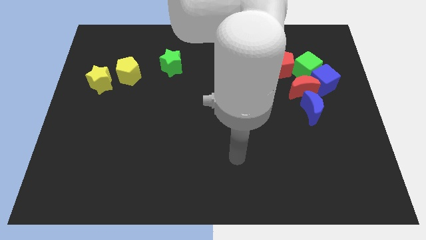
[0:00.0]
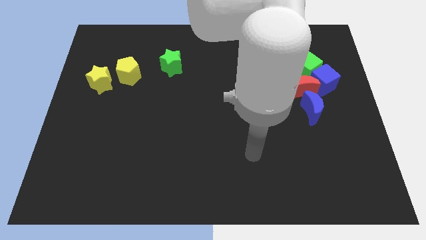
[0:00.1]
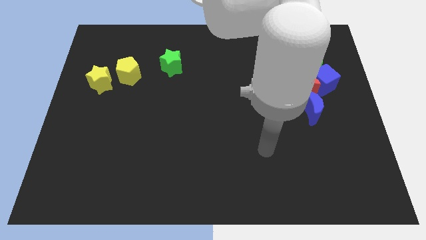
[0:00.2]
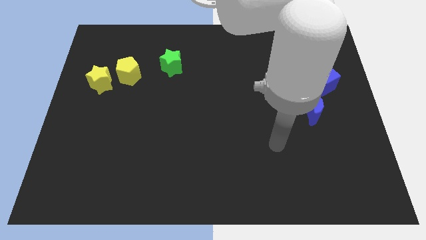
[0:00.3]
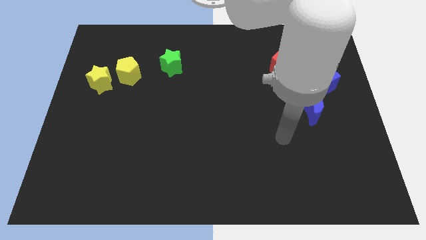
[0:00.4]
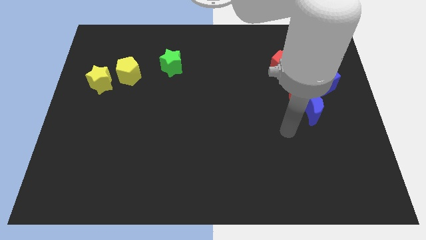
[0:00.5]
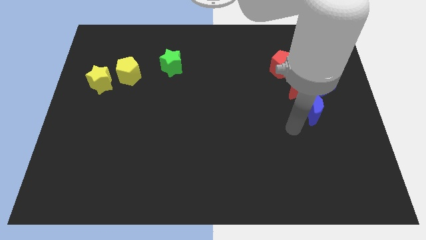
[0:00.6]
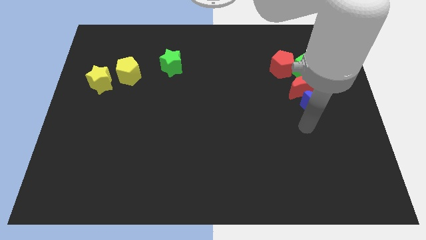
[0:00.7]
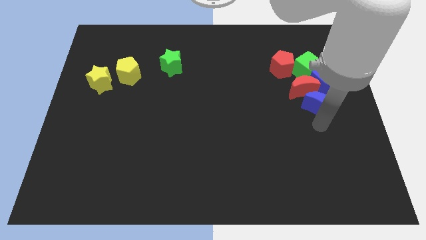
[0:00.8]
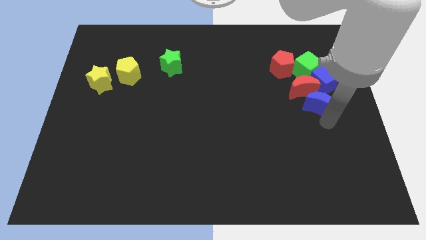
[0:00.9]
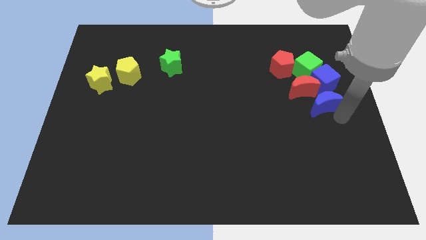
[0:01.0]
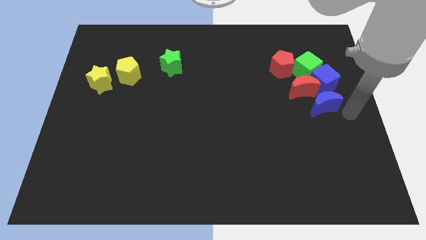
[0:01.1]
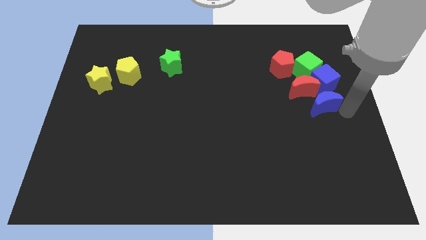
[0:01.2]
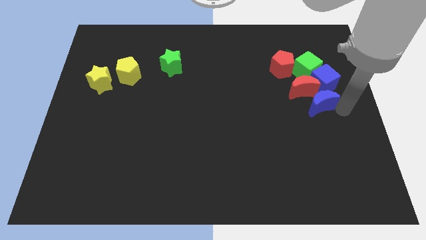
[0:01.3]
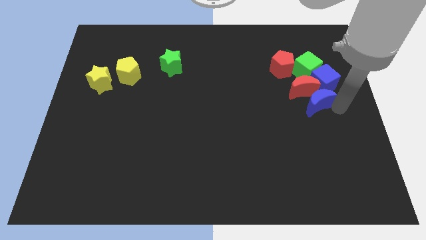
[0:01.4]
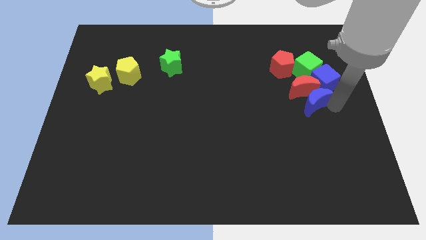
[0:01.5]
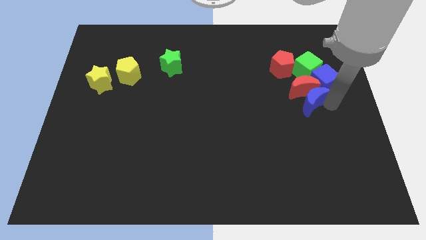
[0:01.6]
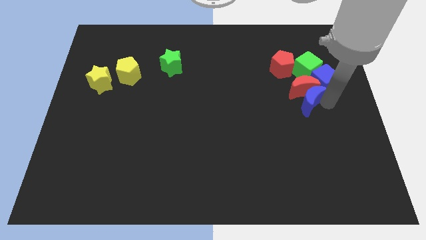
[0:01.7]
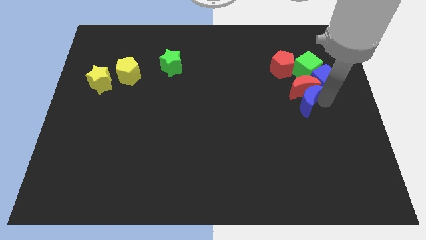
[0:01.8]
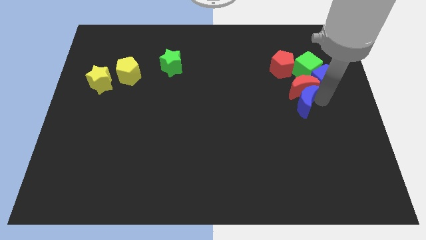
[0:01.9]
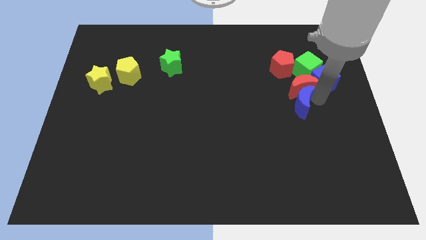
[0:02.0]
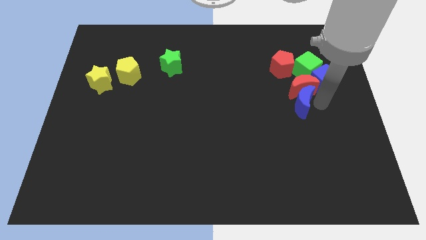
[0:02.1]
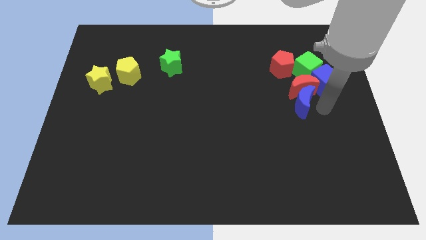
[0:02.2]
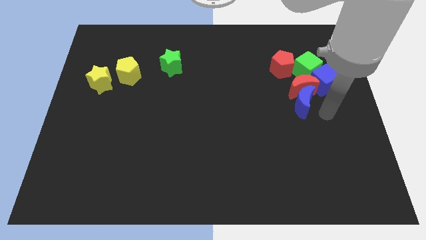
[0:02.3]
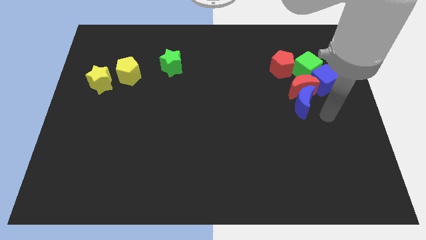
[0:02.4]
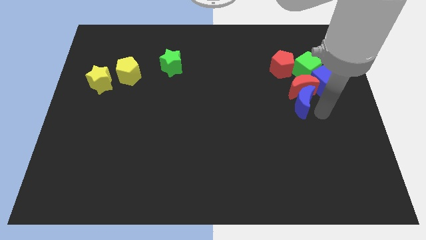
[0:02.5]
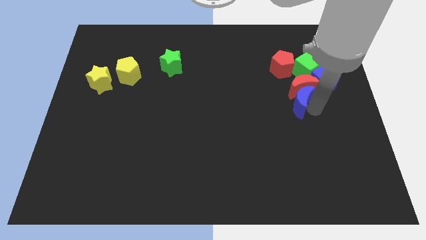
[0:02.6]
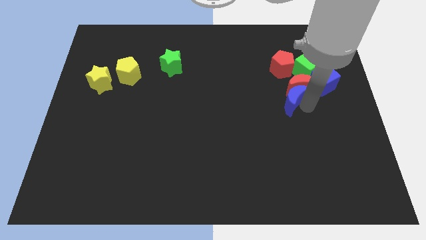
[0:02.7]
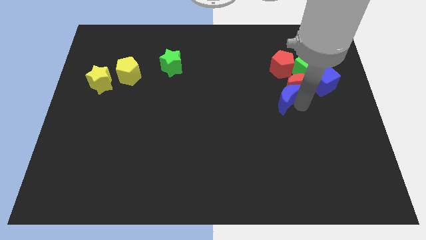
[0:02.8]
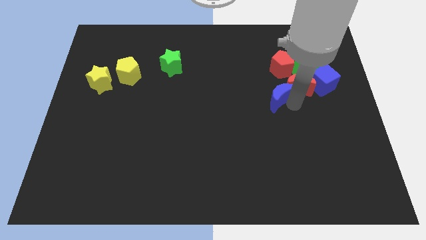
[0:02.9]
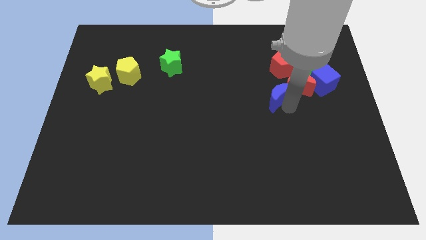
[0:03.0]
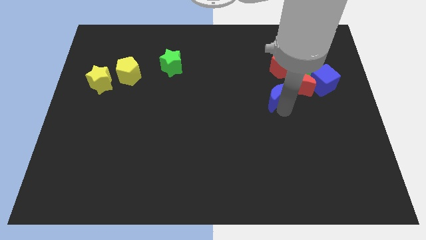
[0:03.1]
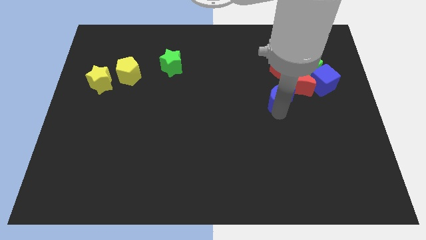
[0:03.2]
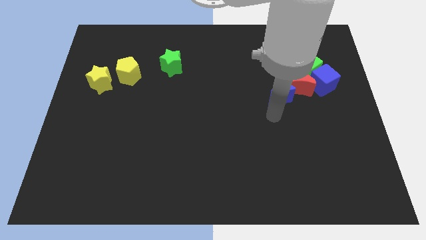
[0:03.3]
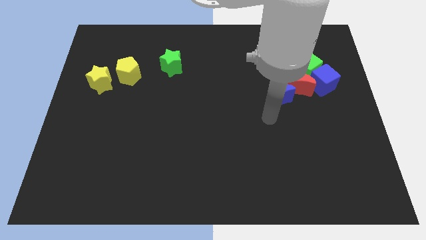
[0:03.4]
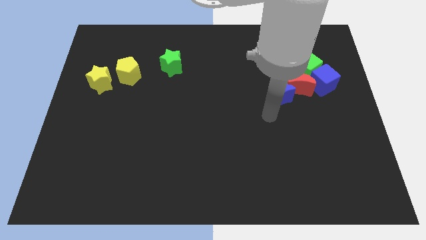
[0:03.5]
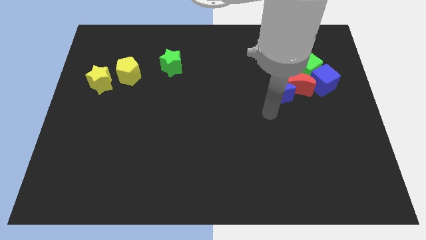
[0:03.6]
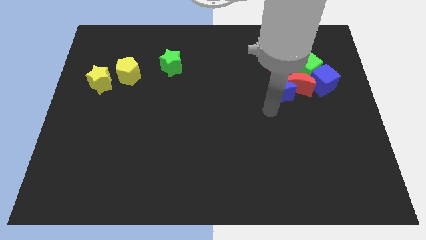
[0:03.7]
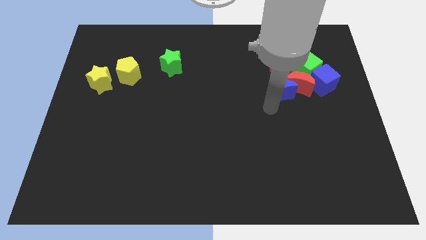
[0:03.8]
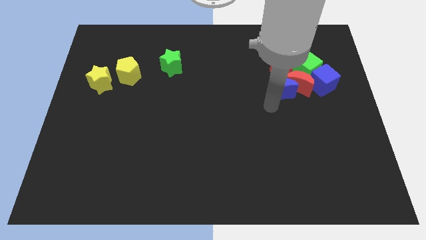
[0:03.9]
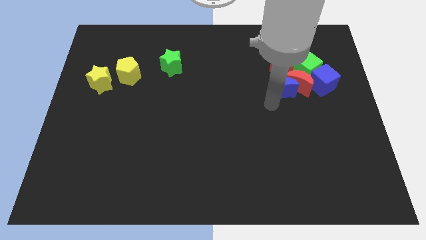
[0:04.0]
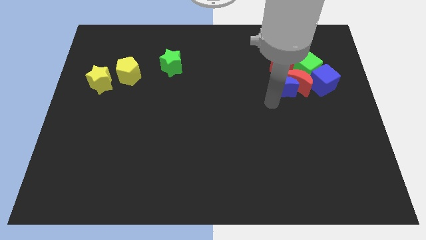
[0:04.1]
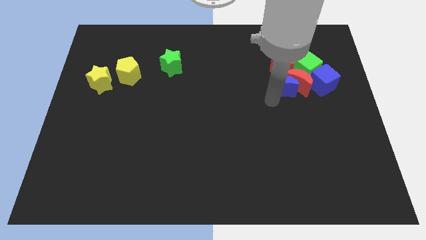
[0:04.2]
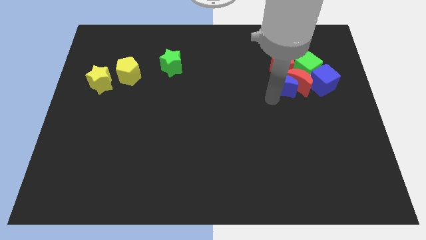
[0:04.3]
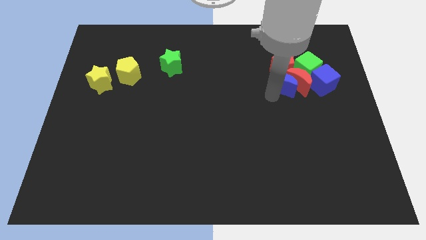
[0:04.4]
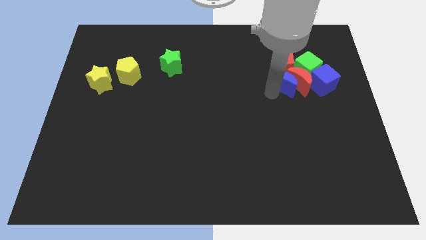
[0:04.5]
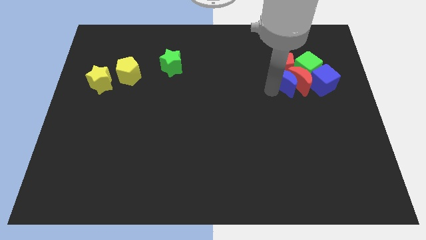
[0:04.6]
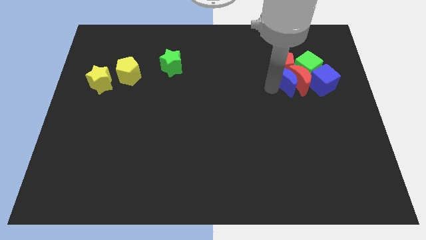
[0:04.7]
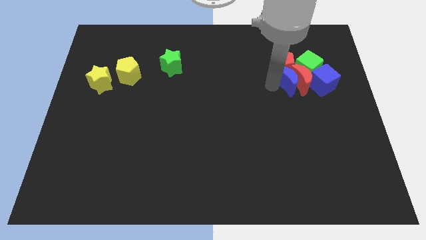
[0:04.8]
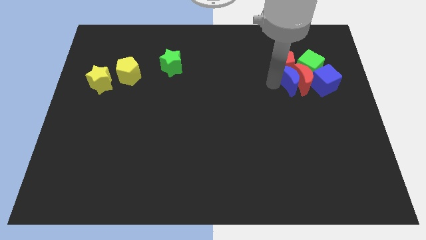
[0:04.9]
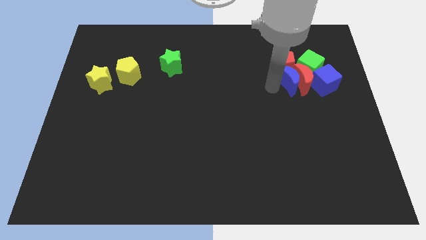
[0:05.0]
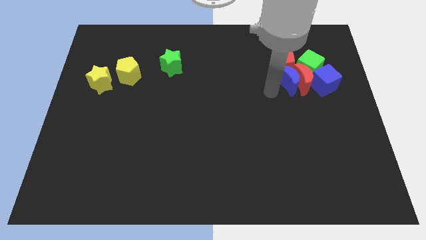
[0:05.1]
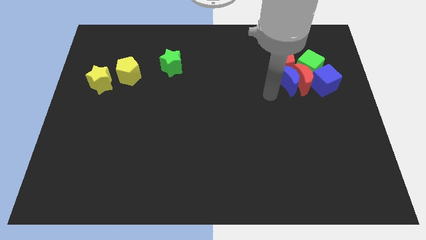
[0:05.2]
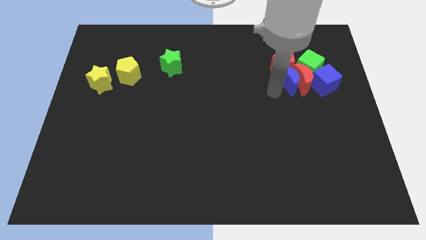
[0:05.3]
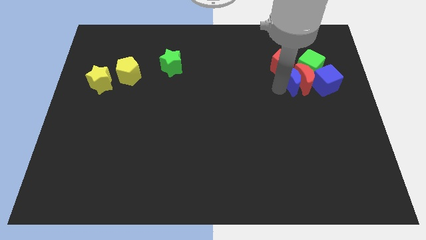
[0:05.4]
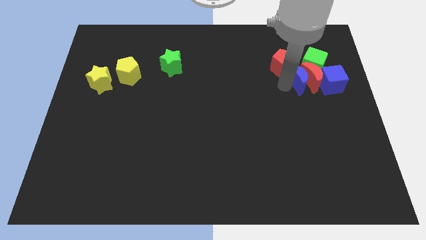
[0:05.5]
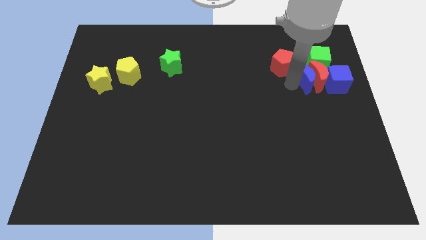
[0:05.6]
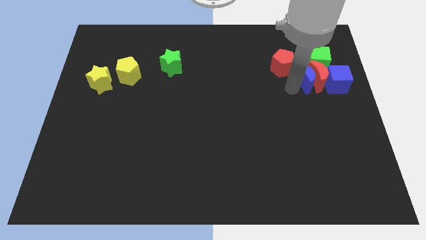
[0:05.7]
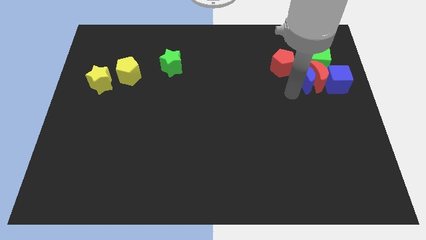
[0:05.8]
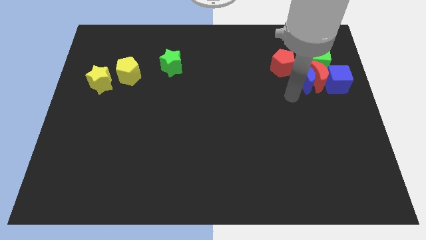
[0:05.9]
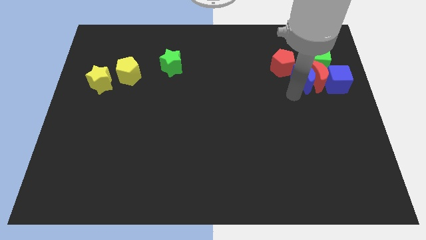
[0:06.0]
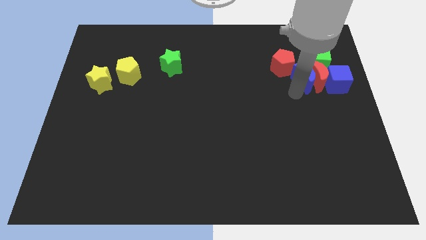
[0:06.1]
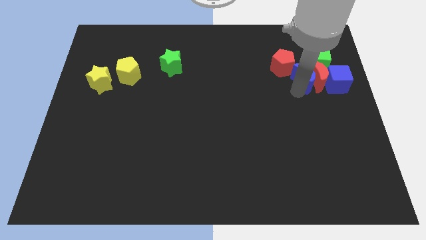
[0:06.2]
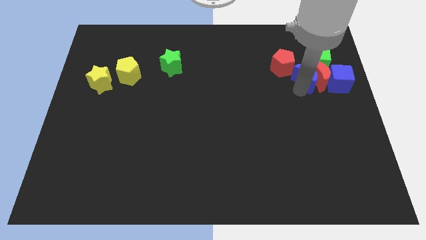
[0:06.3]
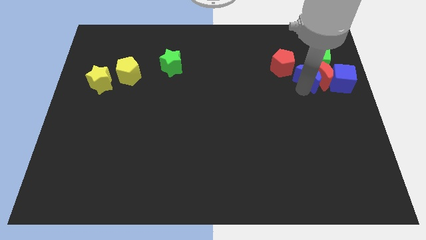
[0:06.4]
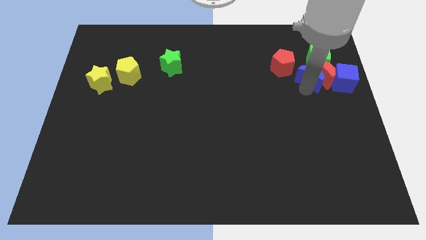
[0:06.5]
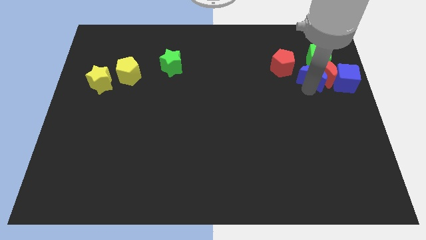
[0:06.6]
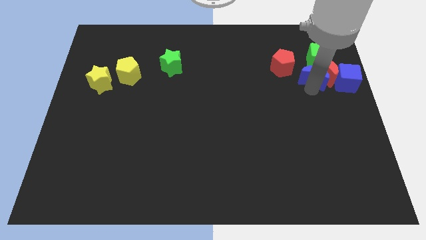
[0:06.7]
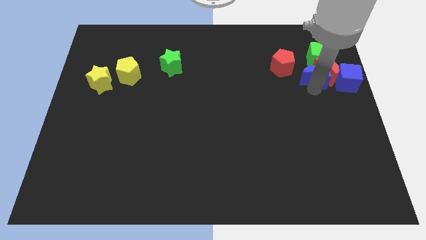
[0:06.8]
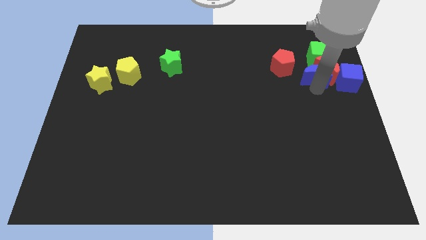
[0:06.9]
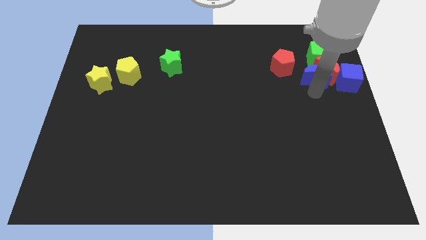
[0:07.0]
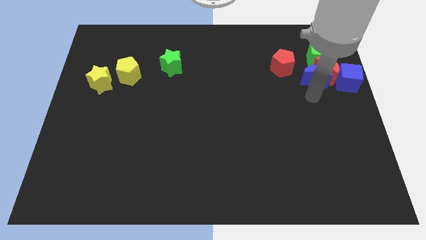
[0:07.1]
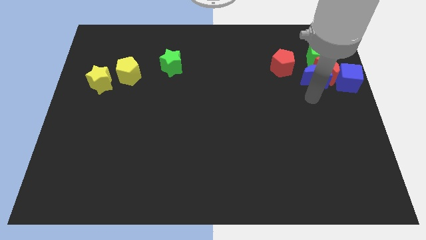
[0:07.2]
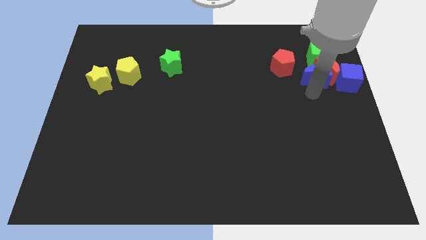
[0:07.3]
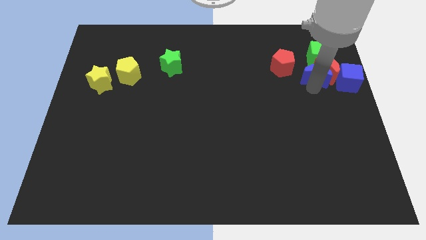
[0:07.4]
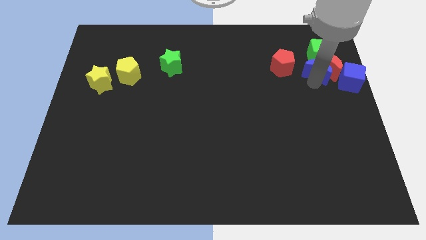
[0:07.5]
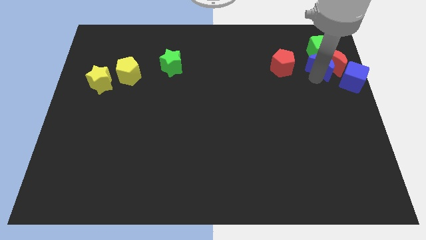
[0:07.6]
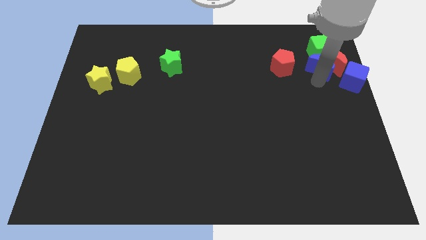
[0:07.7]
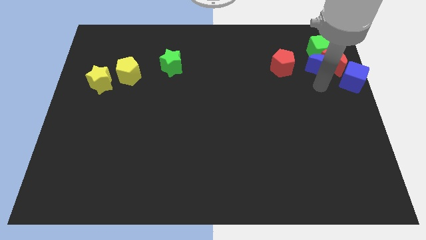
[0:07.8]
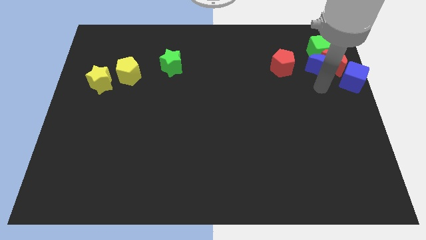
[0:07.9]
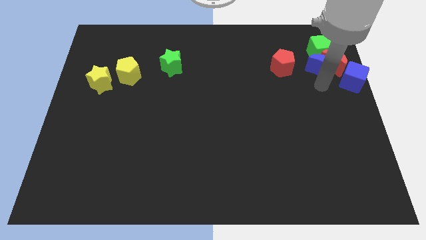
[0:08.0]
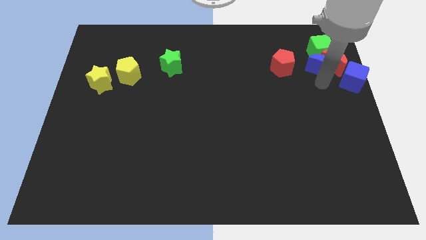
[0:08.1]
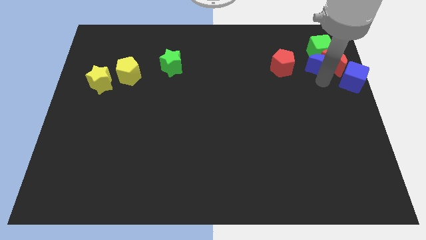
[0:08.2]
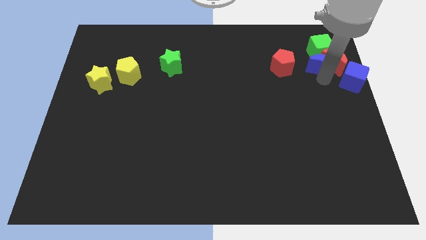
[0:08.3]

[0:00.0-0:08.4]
push the blue moon to the green cube
